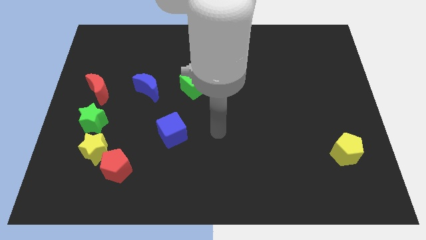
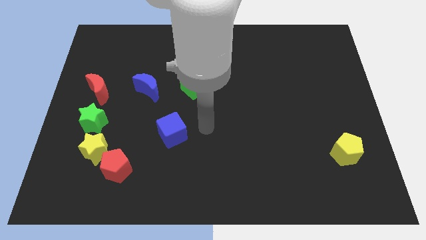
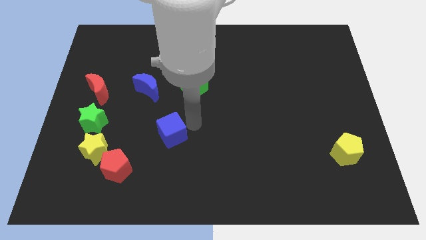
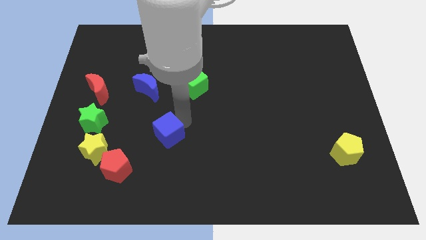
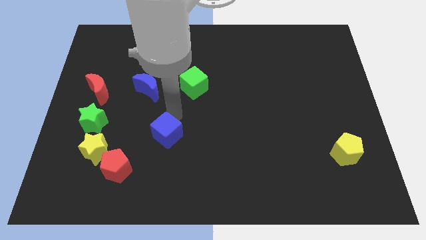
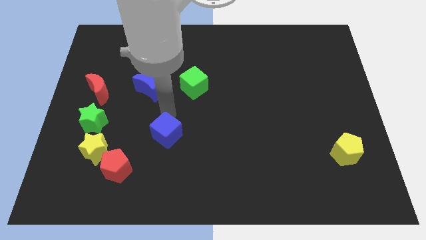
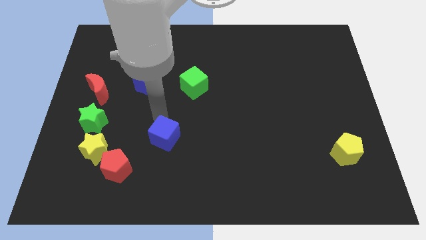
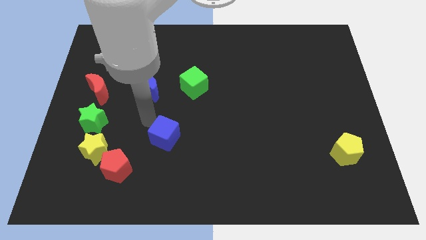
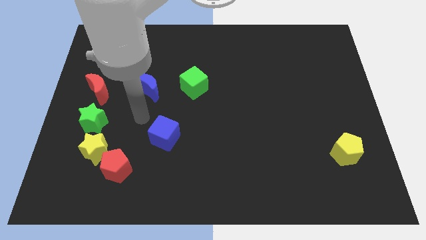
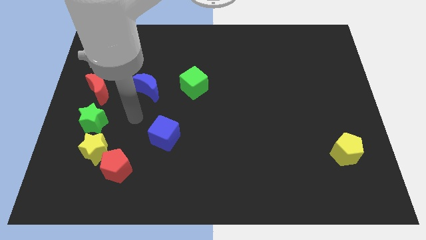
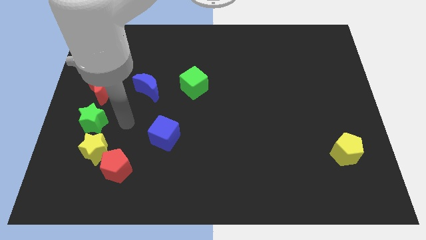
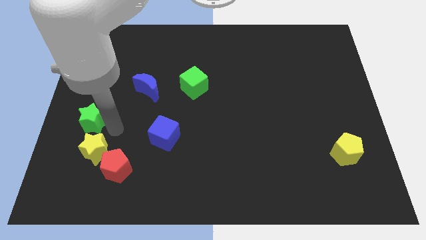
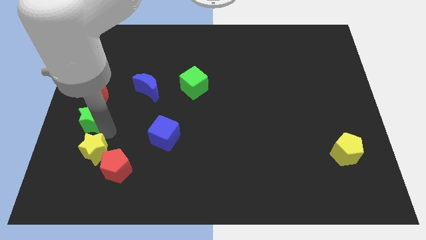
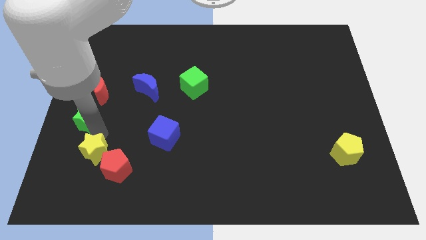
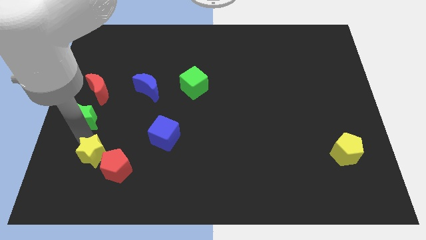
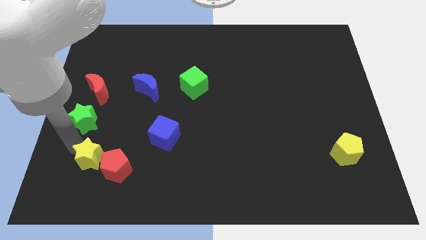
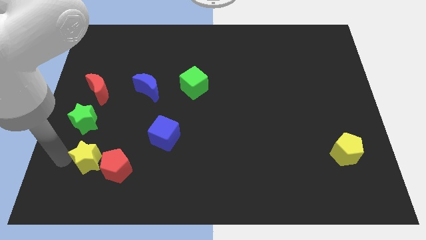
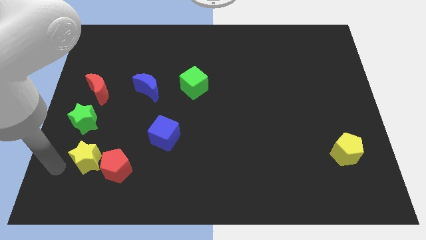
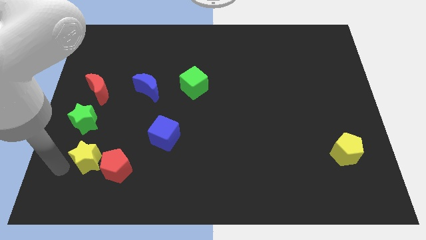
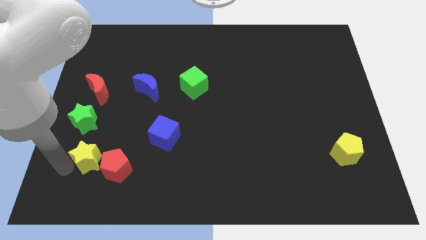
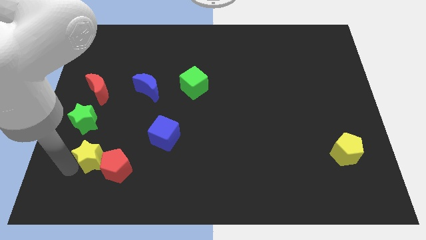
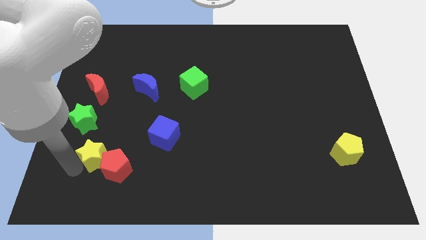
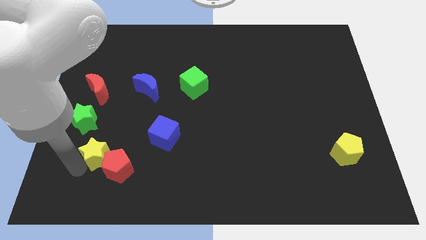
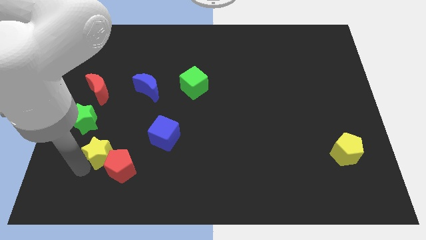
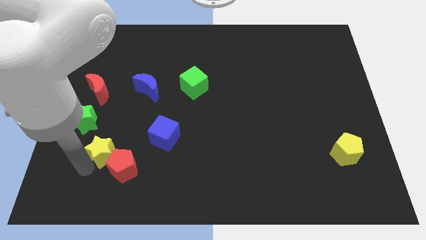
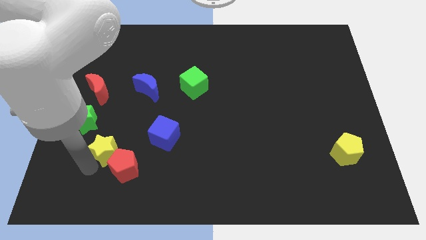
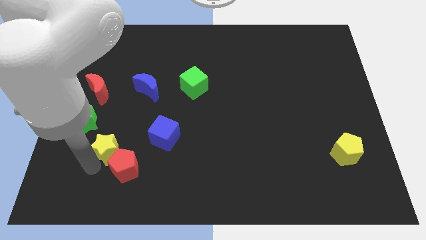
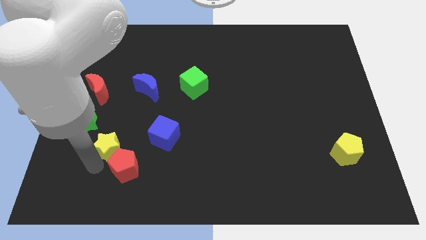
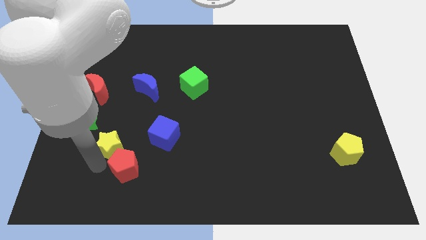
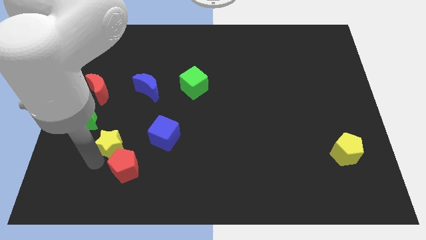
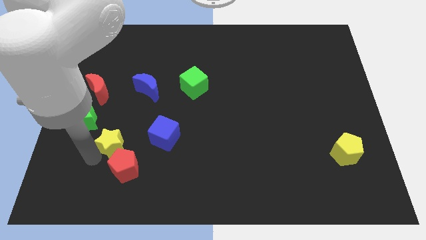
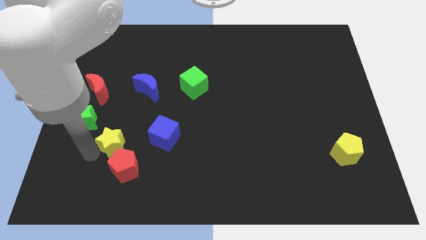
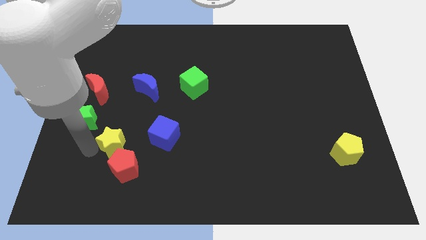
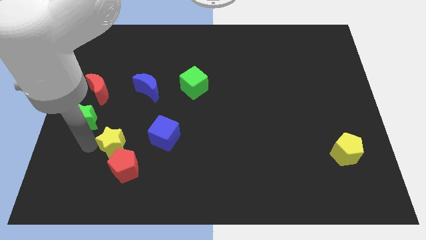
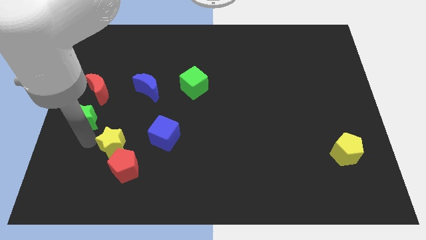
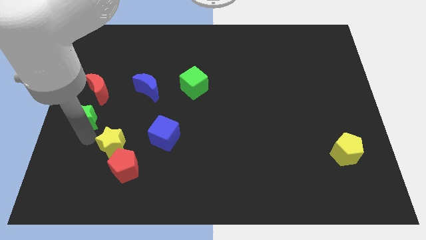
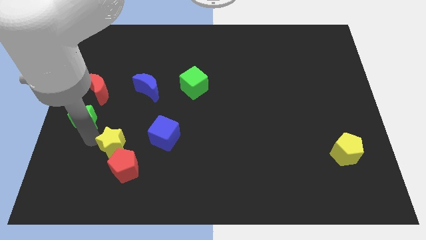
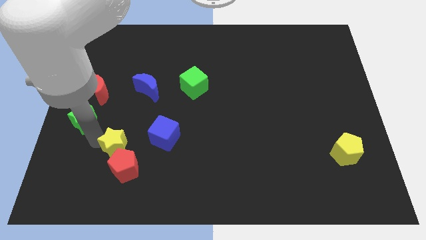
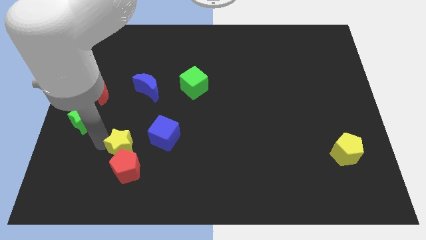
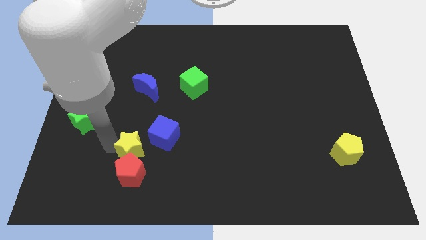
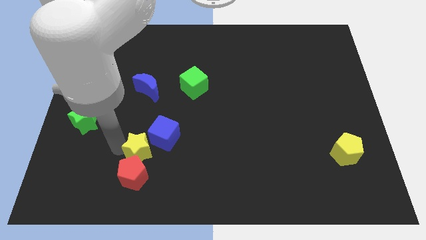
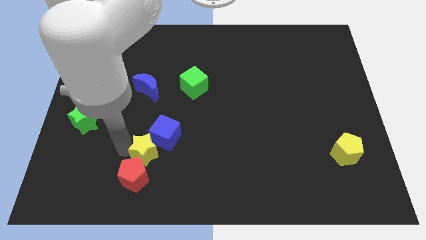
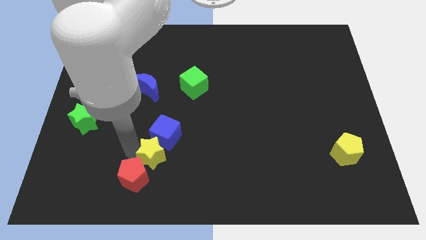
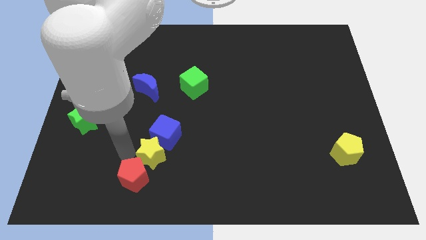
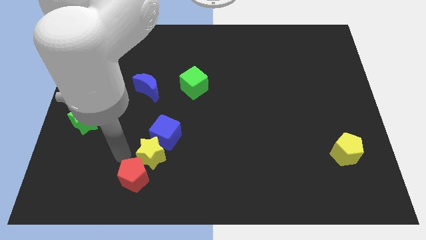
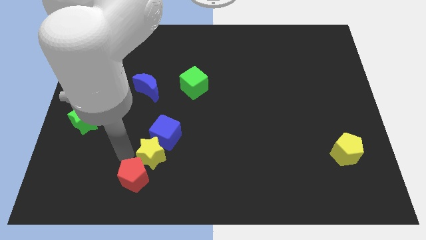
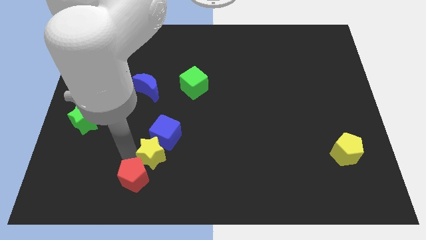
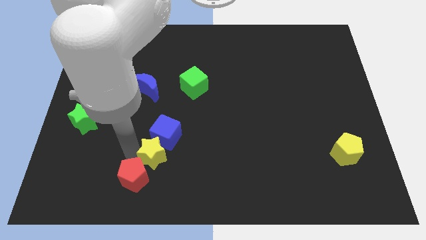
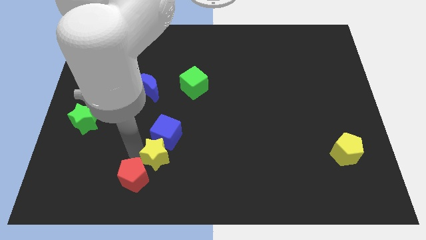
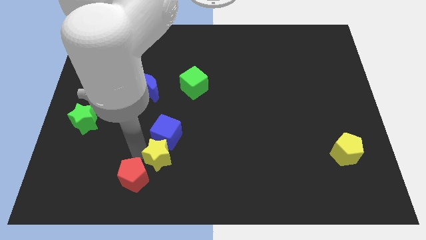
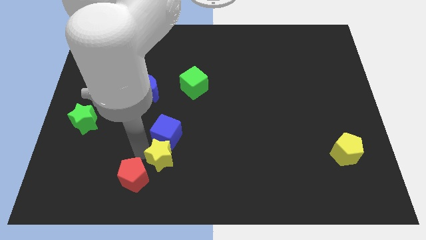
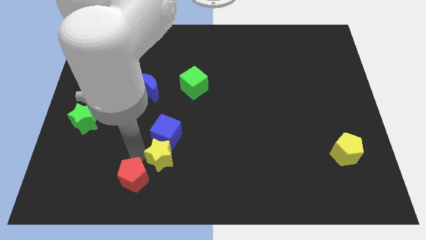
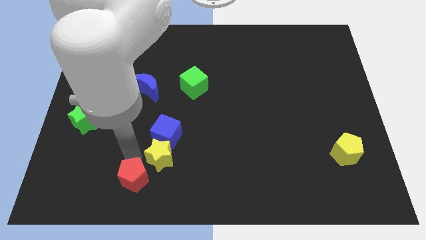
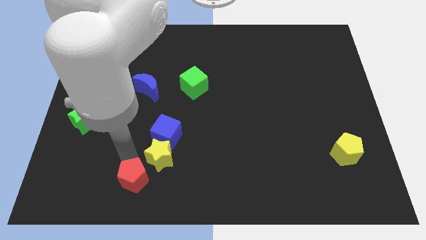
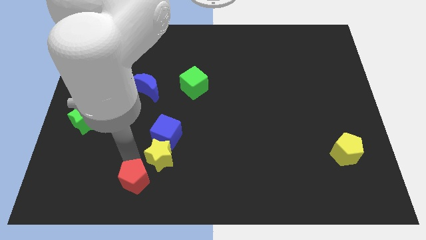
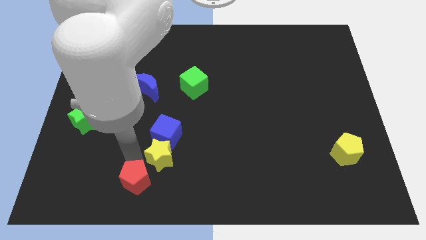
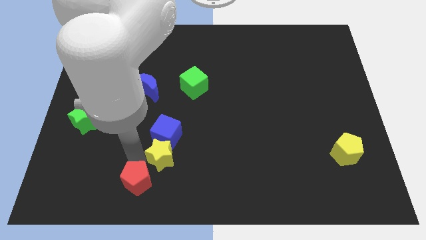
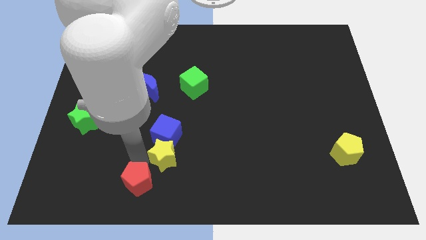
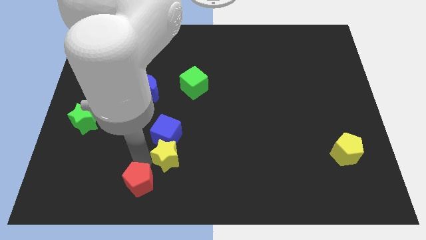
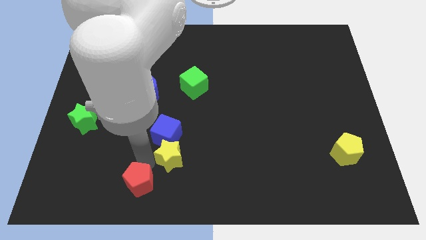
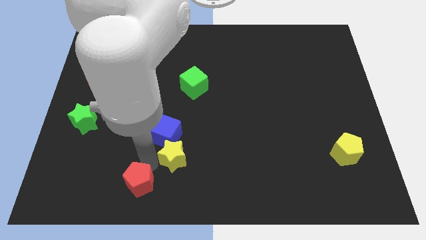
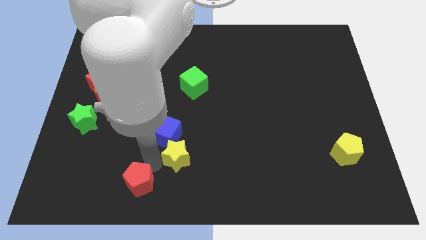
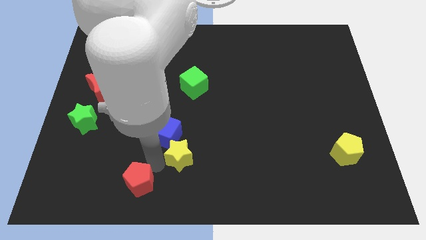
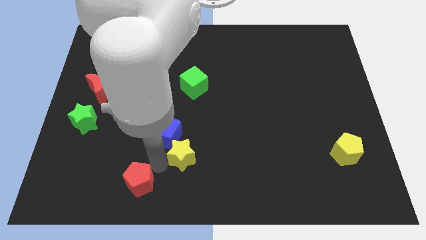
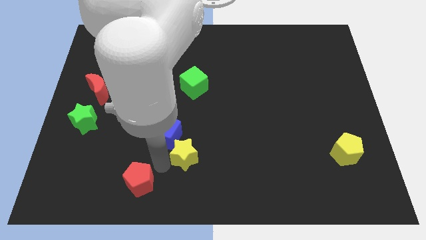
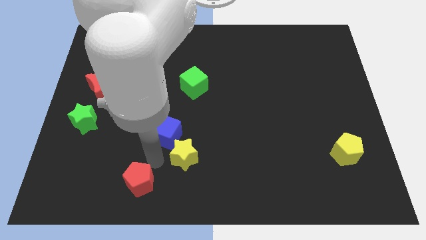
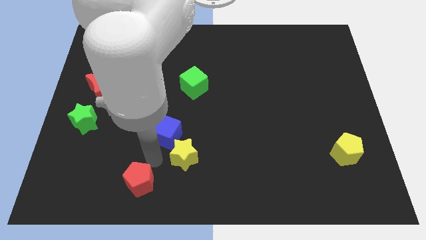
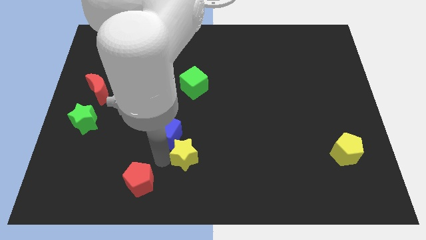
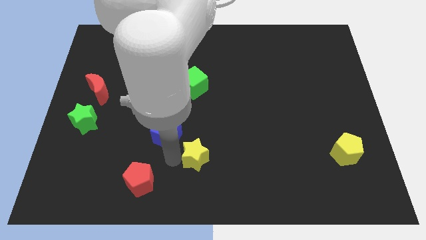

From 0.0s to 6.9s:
slide the yellow star to the right

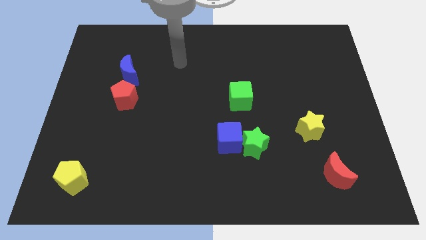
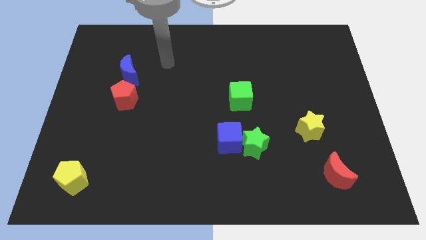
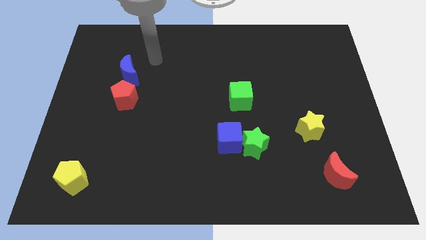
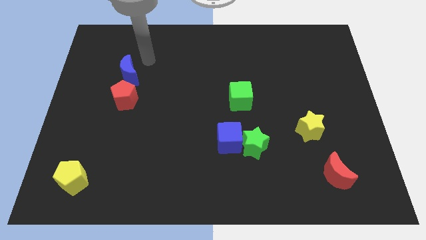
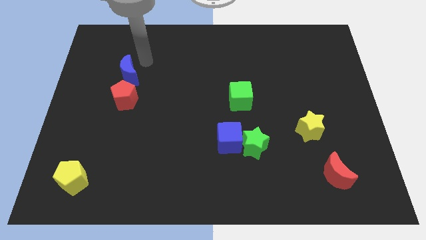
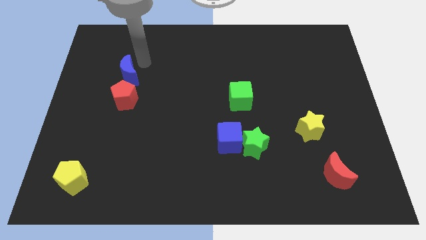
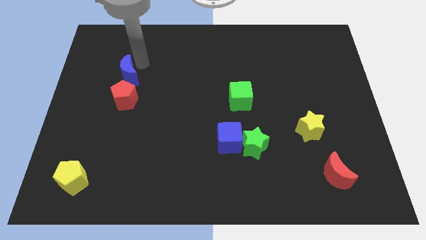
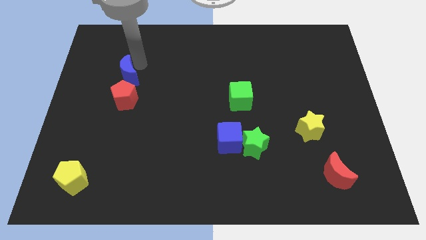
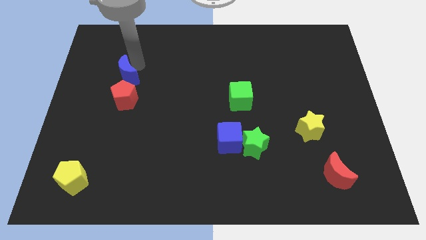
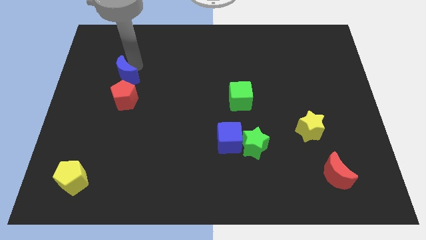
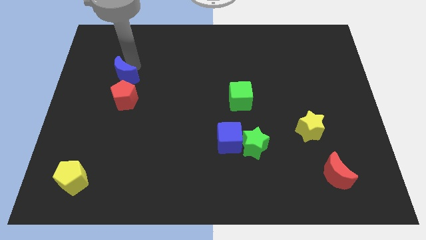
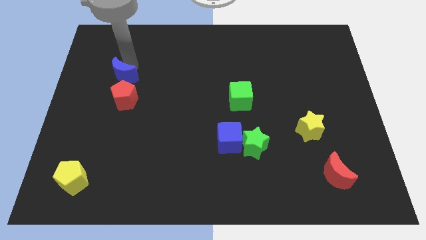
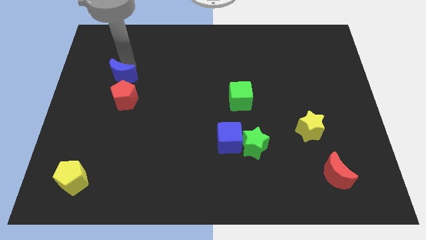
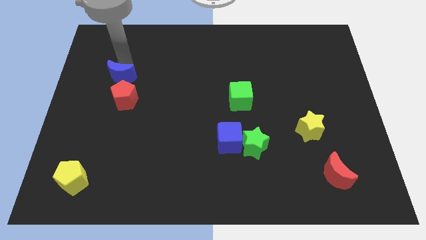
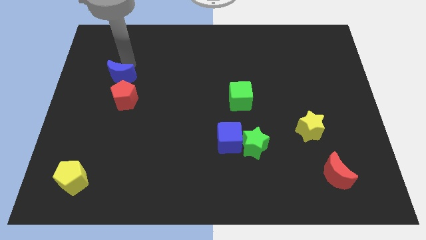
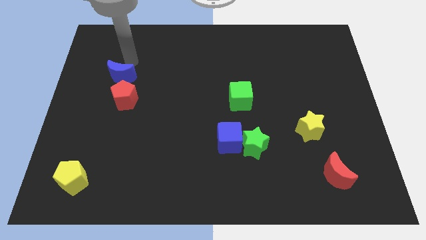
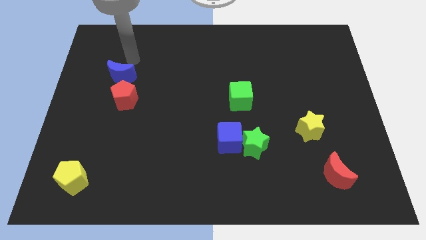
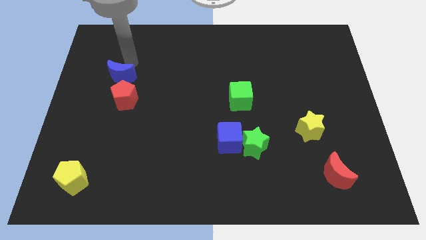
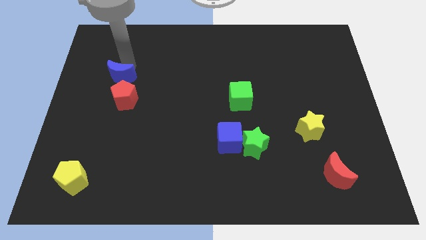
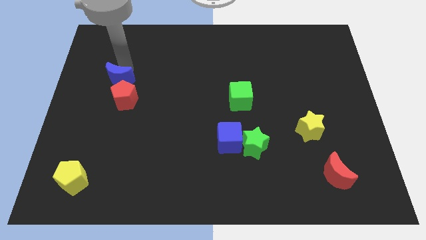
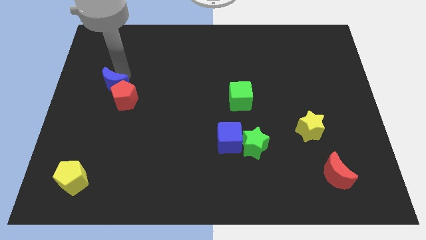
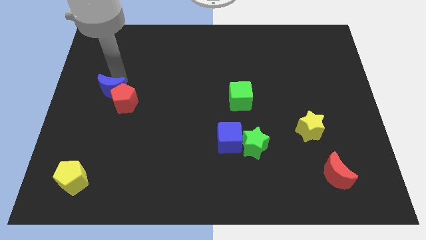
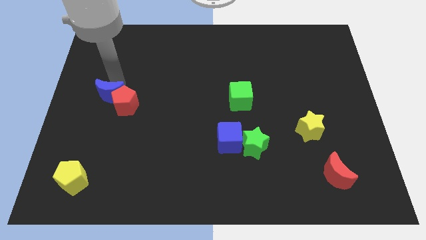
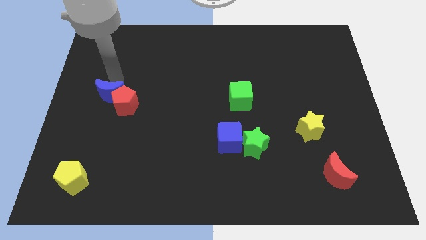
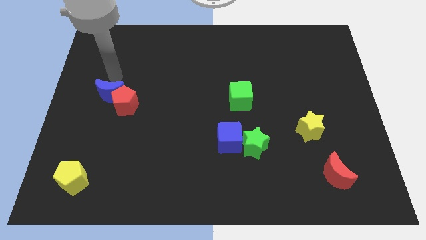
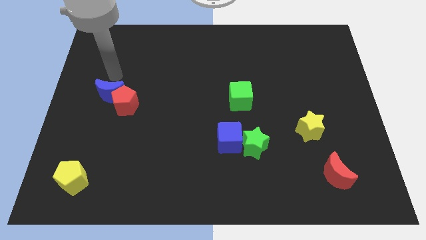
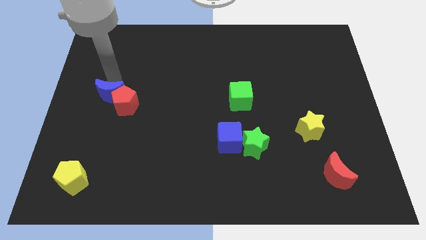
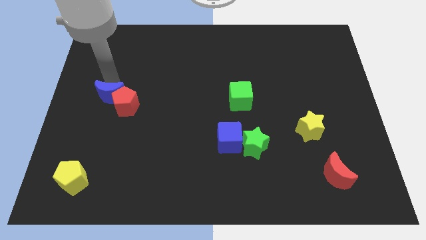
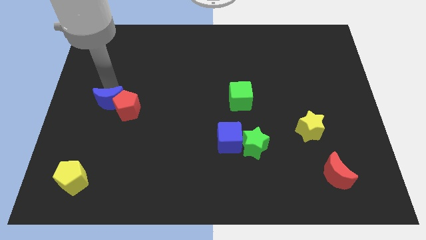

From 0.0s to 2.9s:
slightly move the blue moon downwards
